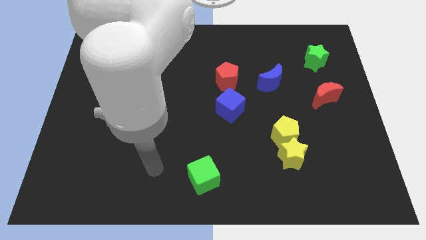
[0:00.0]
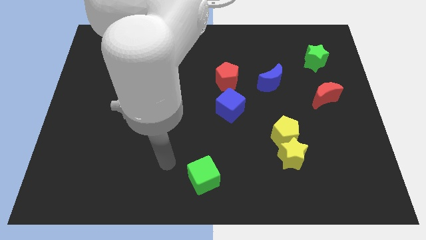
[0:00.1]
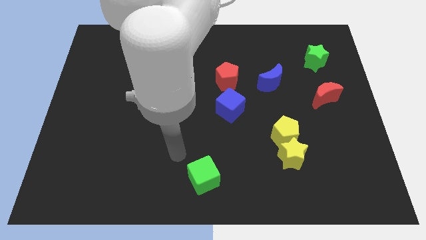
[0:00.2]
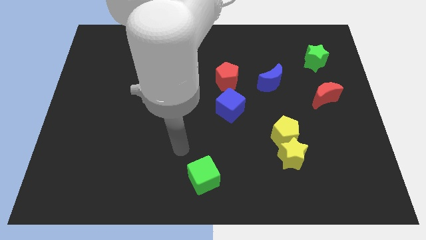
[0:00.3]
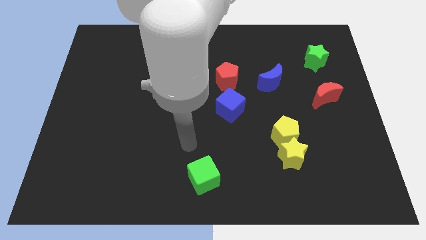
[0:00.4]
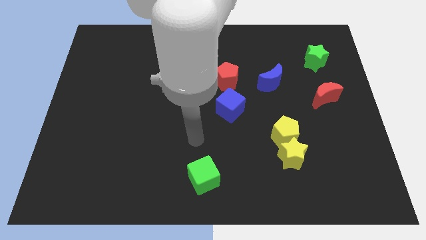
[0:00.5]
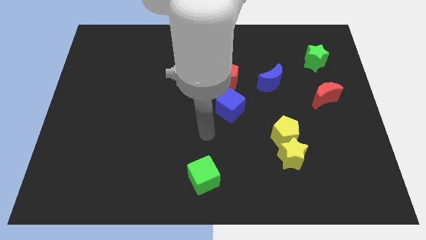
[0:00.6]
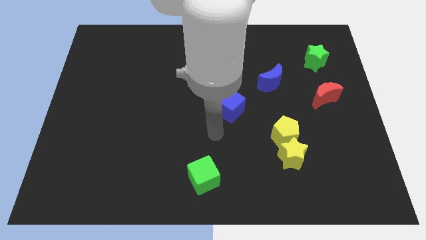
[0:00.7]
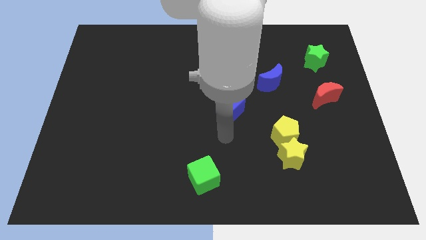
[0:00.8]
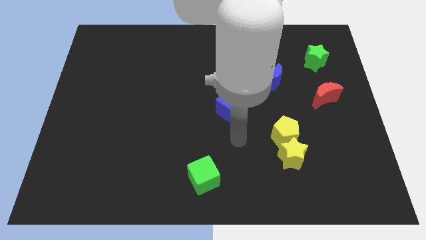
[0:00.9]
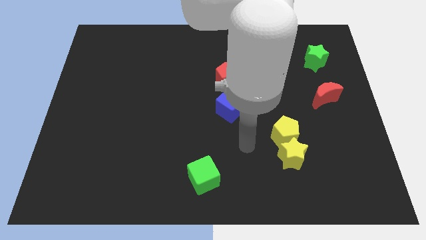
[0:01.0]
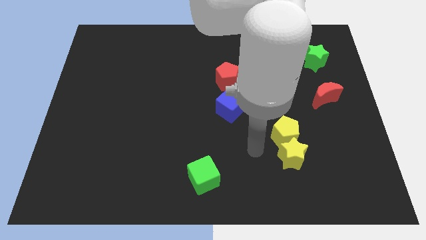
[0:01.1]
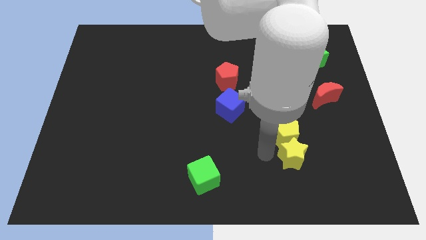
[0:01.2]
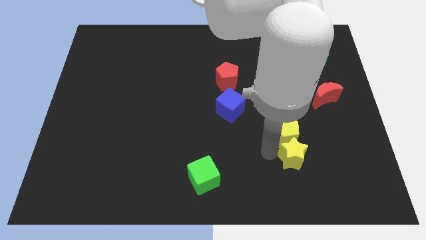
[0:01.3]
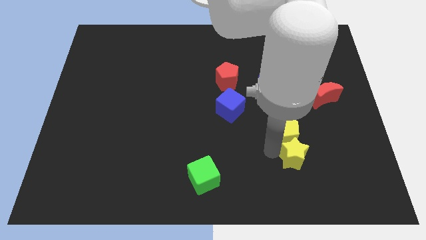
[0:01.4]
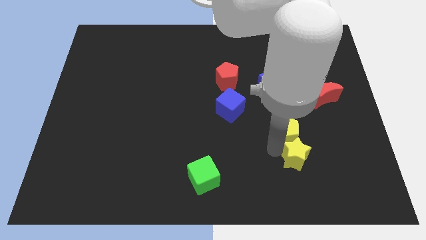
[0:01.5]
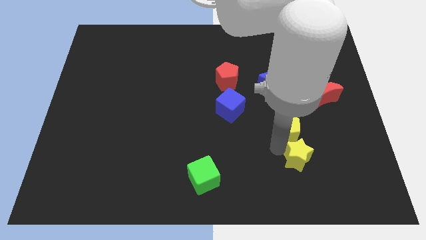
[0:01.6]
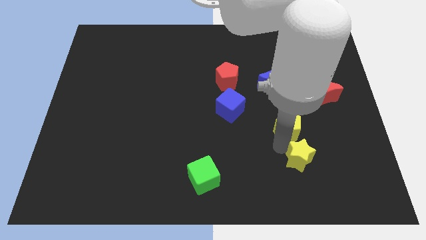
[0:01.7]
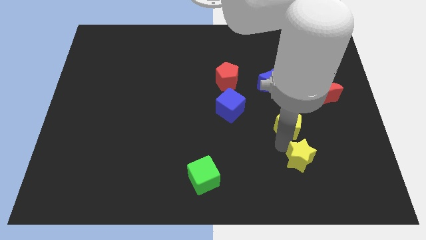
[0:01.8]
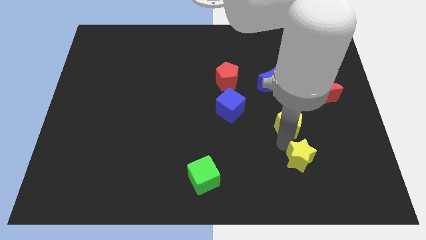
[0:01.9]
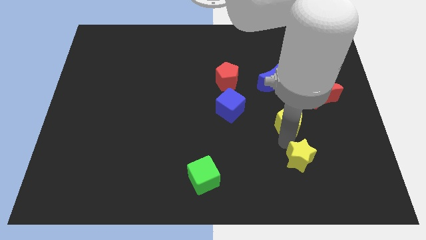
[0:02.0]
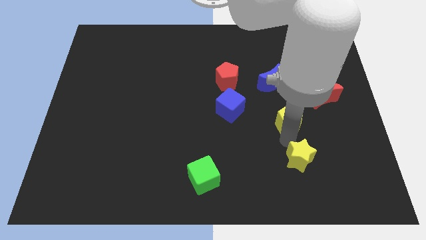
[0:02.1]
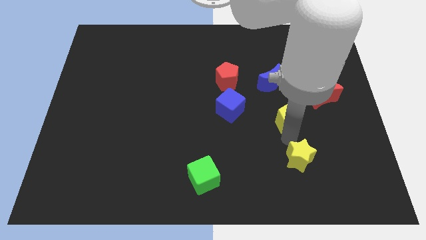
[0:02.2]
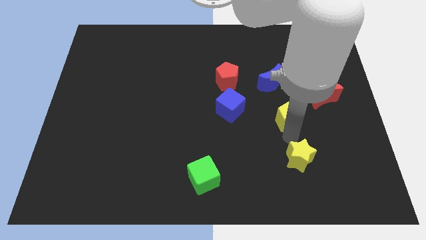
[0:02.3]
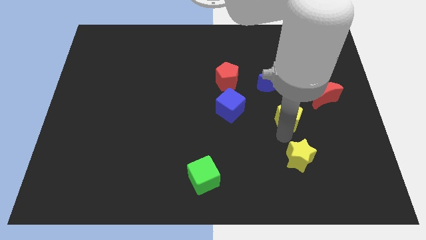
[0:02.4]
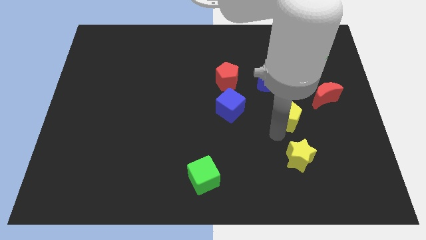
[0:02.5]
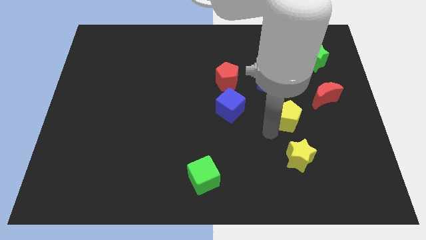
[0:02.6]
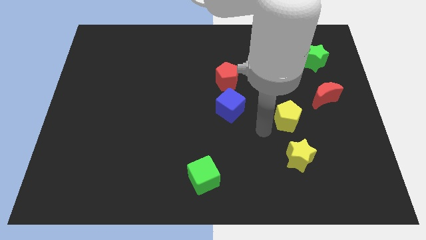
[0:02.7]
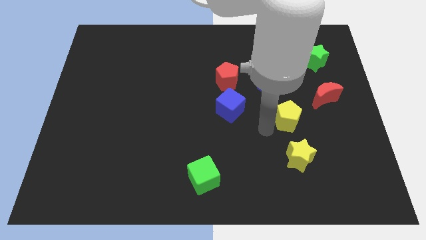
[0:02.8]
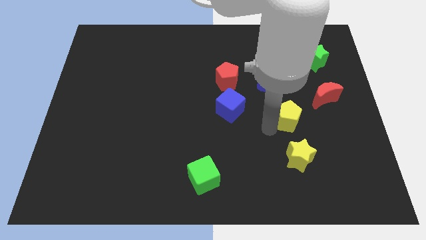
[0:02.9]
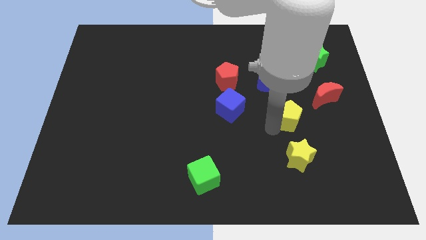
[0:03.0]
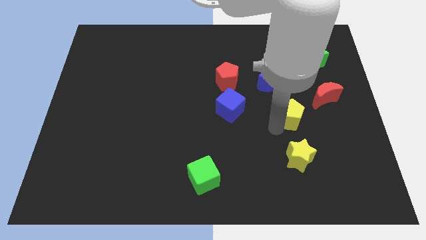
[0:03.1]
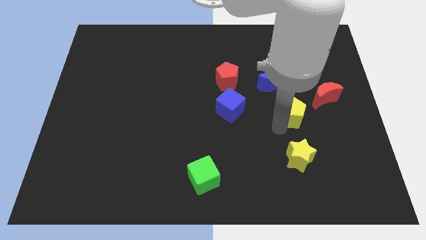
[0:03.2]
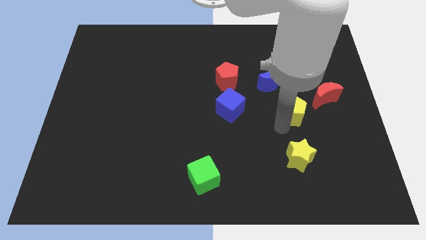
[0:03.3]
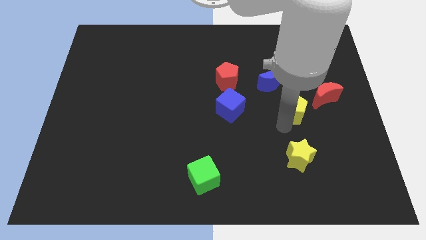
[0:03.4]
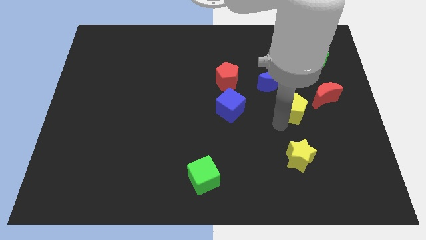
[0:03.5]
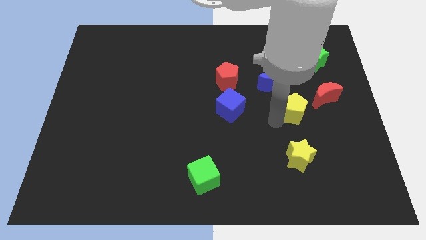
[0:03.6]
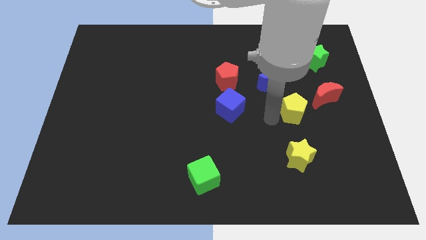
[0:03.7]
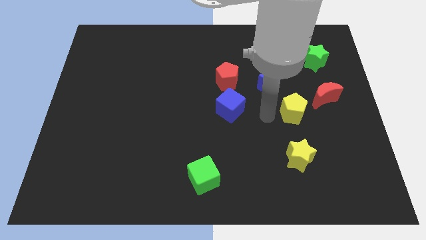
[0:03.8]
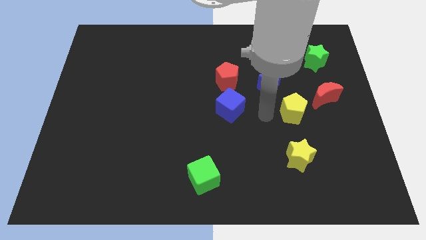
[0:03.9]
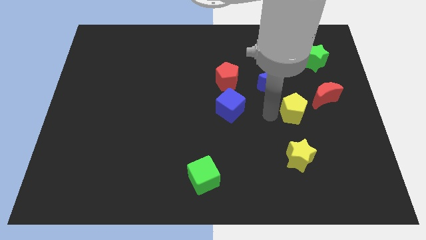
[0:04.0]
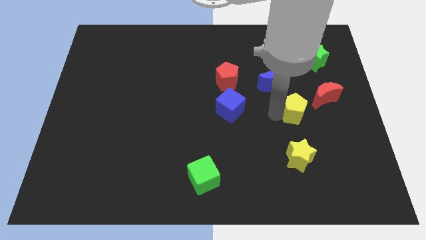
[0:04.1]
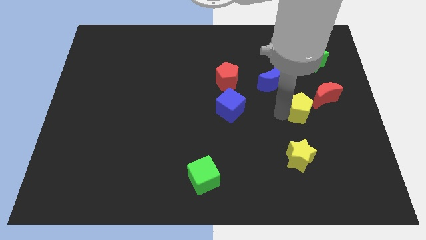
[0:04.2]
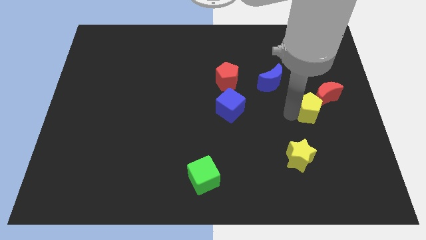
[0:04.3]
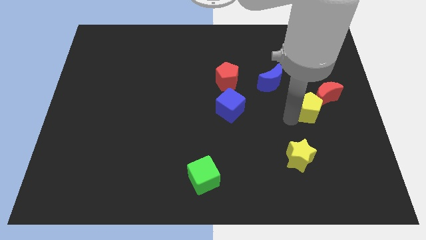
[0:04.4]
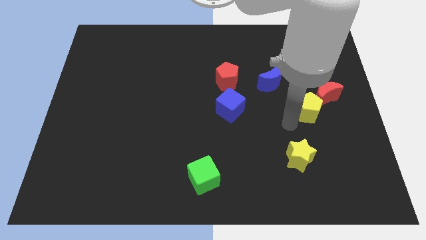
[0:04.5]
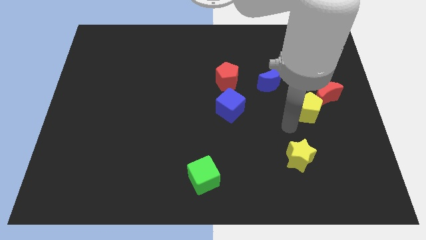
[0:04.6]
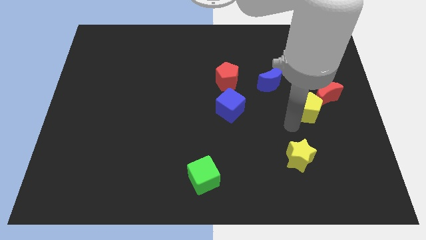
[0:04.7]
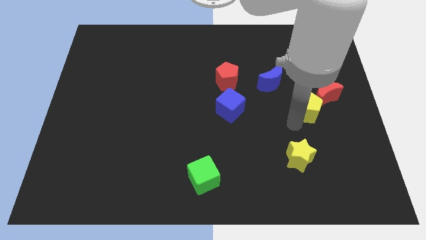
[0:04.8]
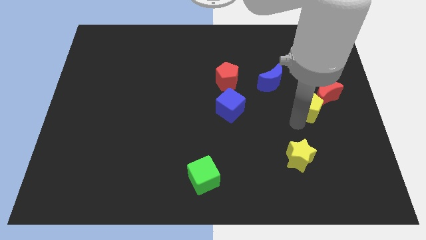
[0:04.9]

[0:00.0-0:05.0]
push the yellow pentagon to the red moon

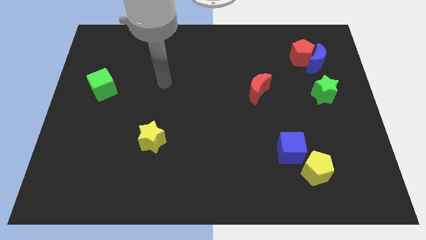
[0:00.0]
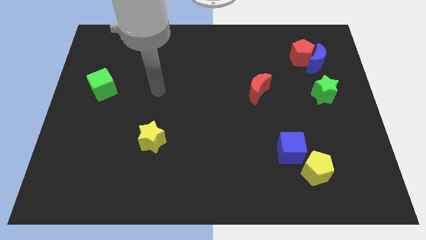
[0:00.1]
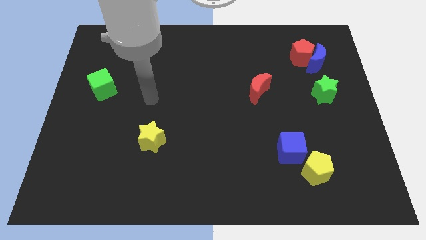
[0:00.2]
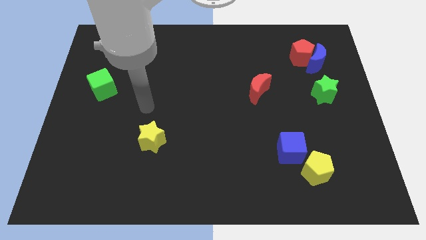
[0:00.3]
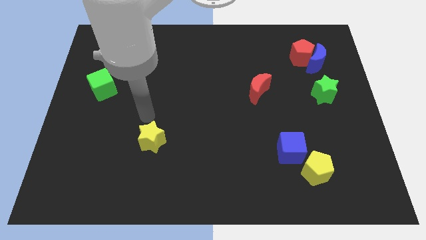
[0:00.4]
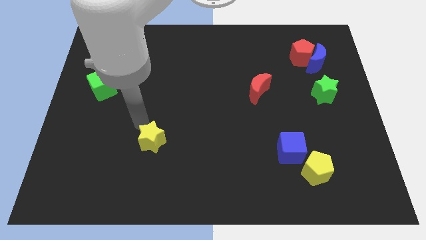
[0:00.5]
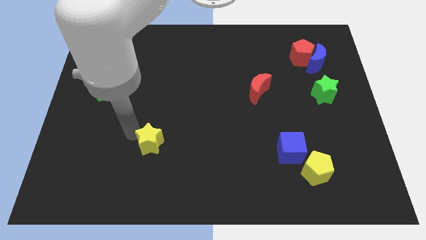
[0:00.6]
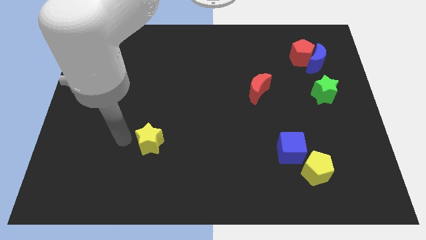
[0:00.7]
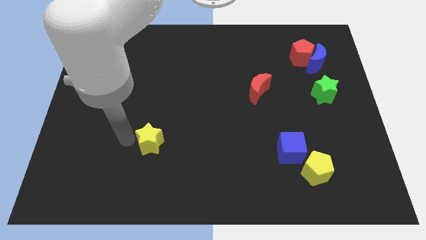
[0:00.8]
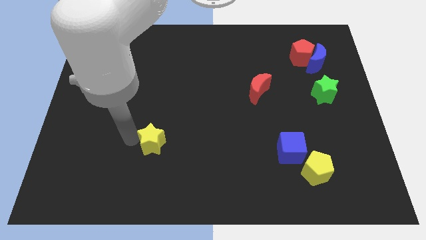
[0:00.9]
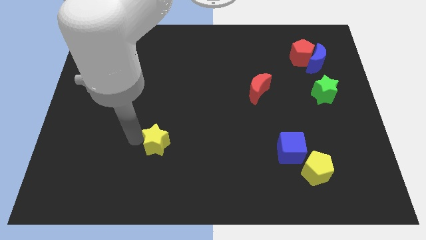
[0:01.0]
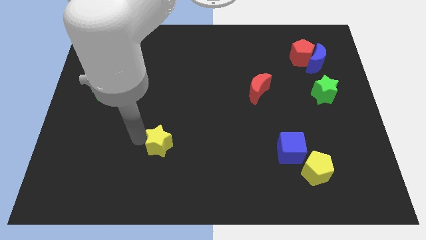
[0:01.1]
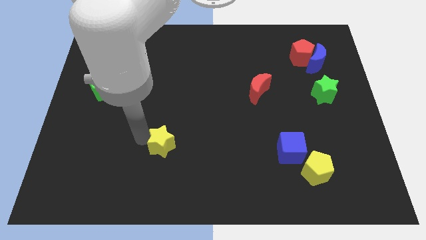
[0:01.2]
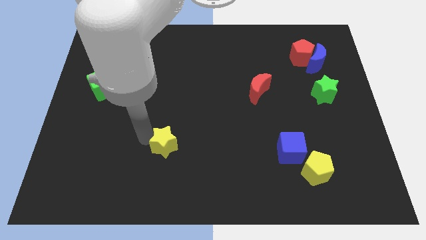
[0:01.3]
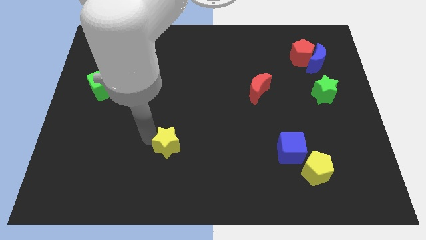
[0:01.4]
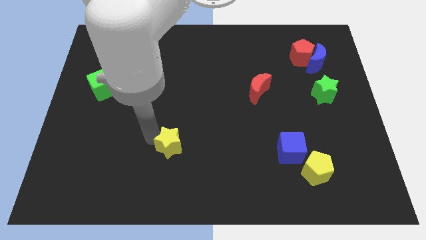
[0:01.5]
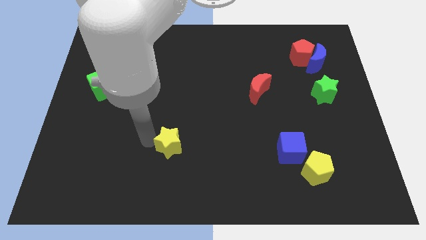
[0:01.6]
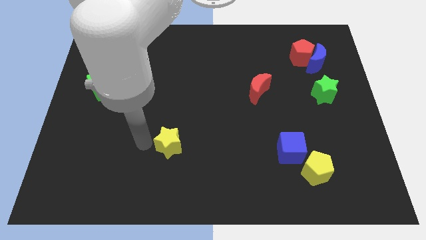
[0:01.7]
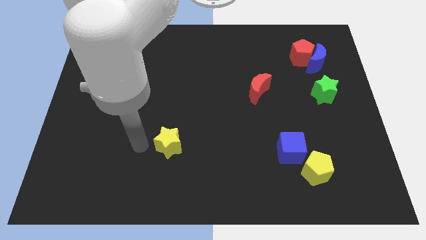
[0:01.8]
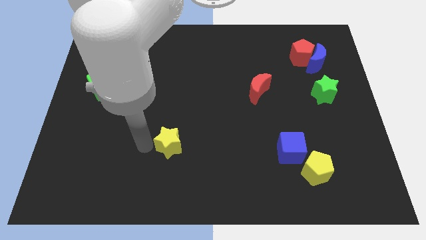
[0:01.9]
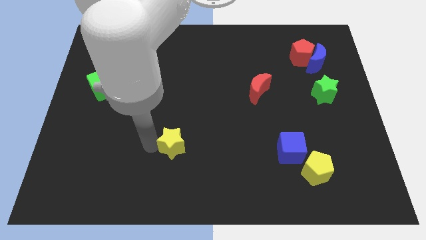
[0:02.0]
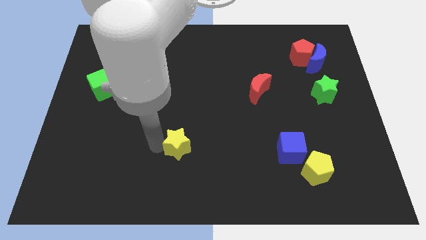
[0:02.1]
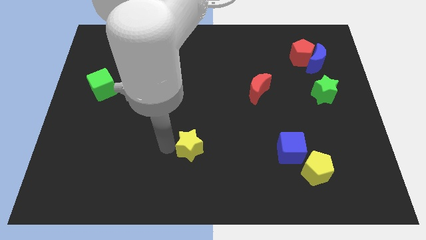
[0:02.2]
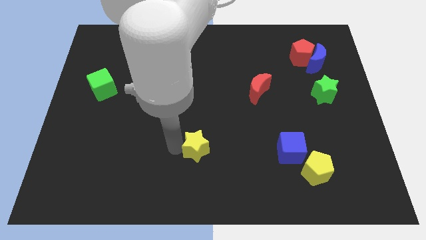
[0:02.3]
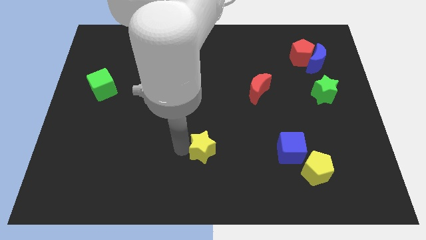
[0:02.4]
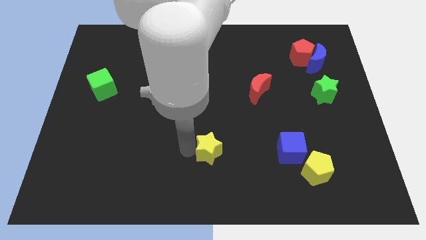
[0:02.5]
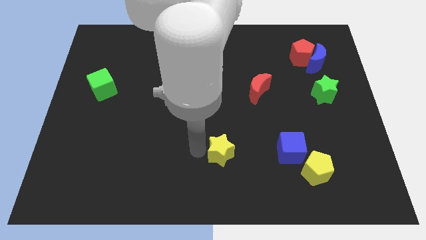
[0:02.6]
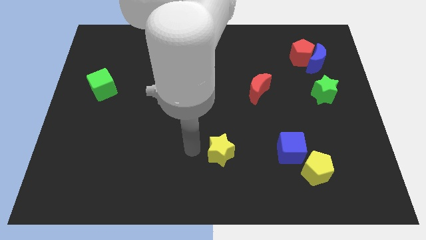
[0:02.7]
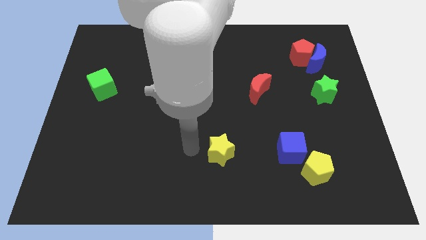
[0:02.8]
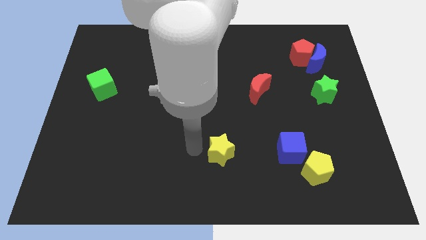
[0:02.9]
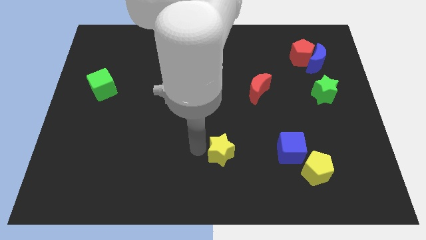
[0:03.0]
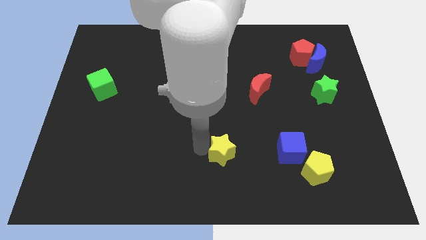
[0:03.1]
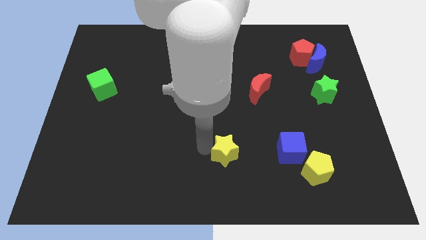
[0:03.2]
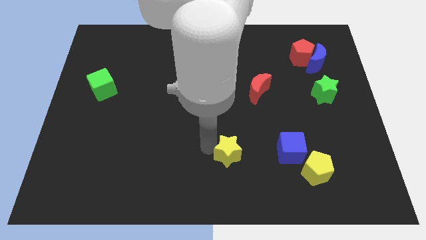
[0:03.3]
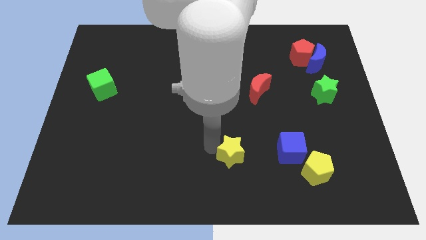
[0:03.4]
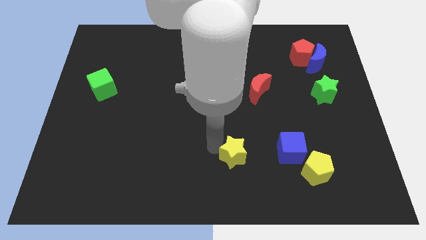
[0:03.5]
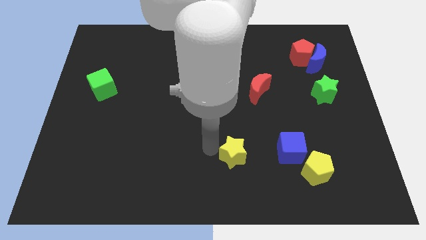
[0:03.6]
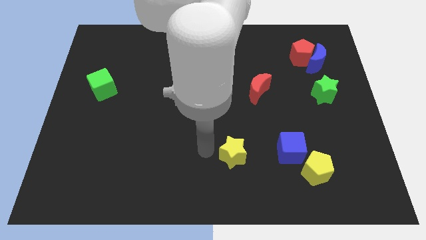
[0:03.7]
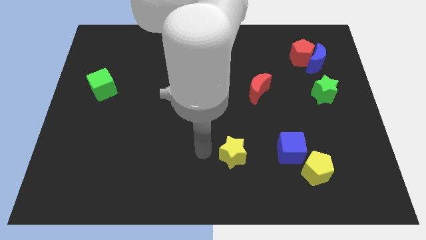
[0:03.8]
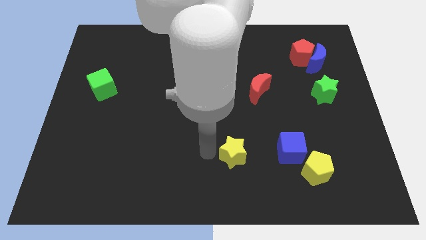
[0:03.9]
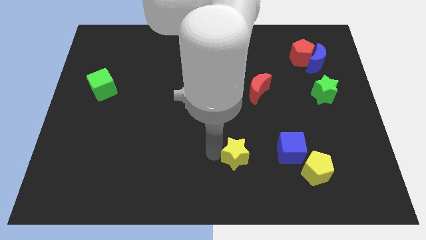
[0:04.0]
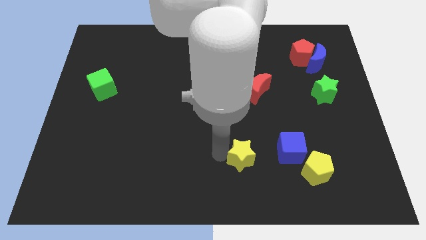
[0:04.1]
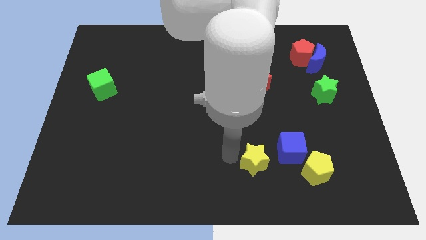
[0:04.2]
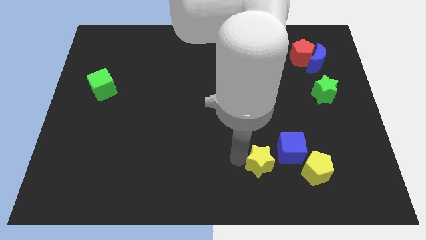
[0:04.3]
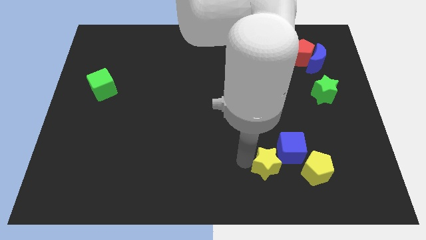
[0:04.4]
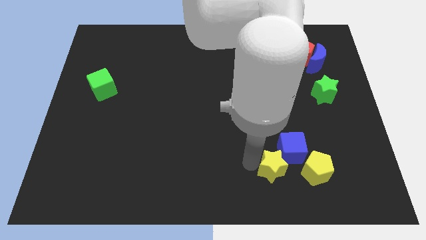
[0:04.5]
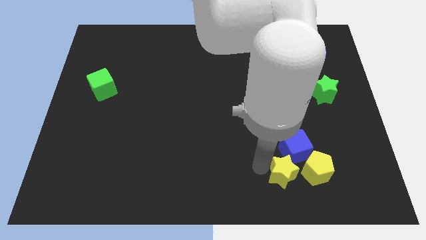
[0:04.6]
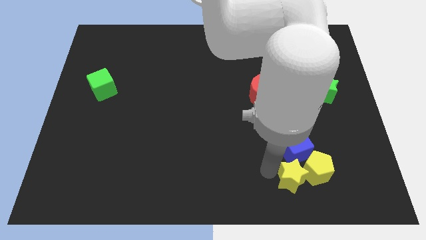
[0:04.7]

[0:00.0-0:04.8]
move the yellow star to the yellow pentagon
